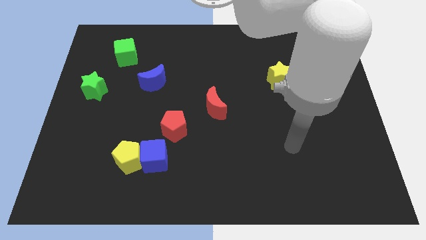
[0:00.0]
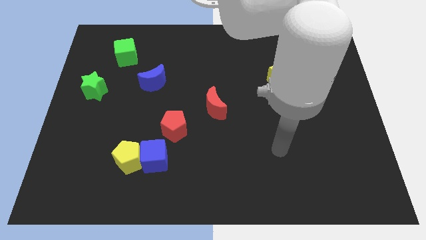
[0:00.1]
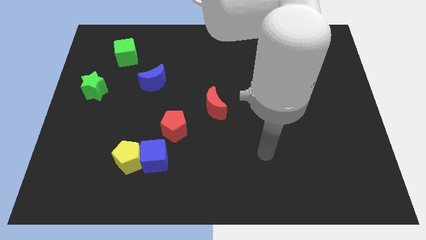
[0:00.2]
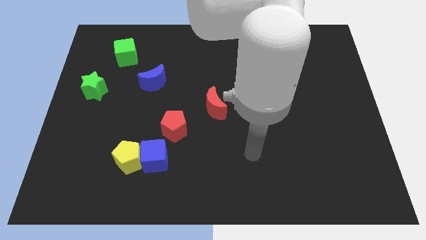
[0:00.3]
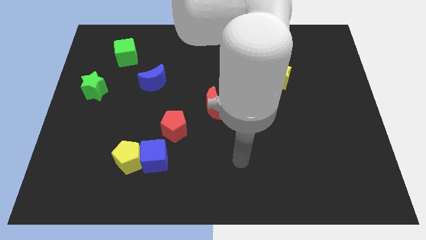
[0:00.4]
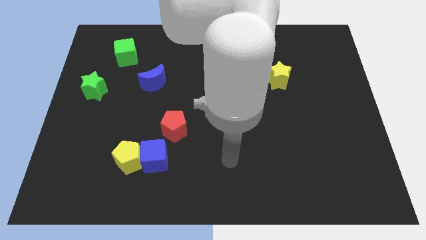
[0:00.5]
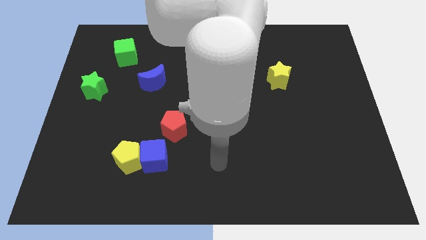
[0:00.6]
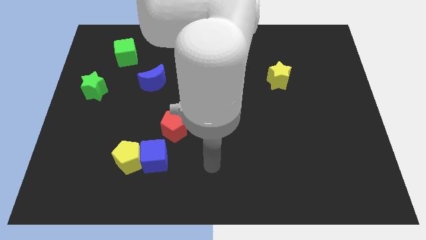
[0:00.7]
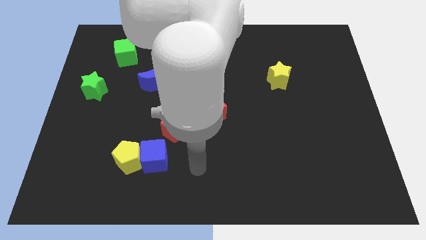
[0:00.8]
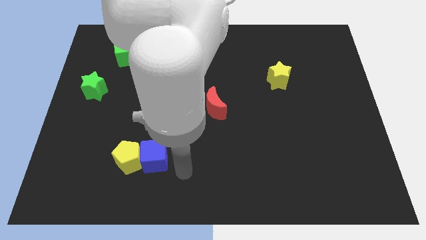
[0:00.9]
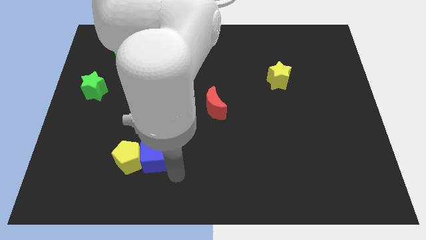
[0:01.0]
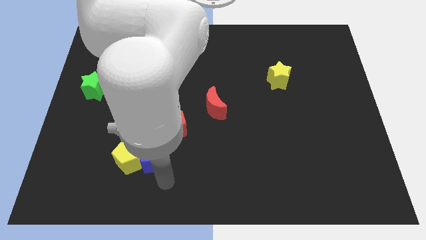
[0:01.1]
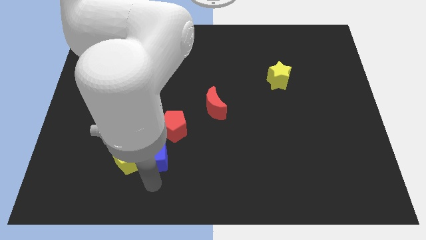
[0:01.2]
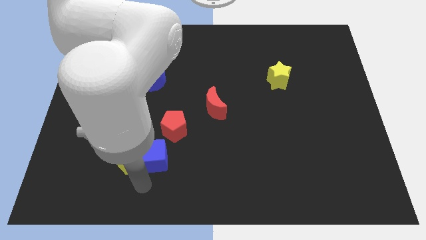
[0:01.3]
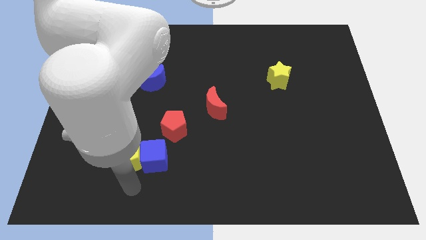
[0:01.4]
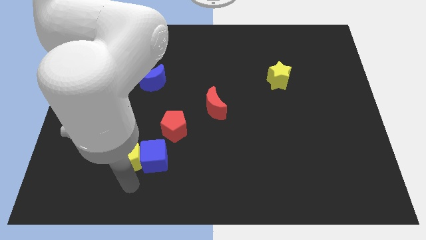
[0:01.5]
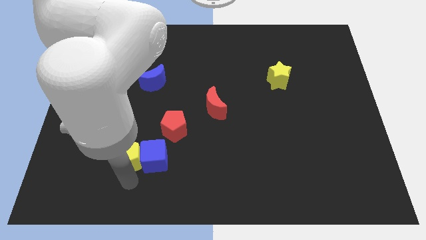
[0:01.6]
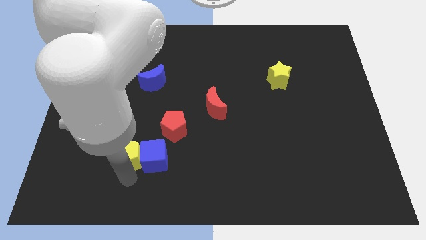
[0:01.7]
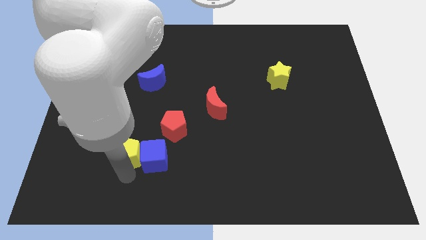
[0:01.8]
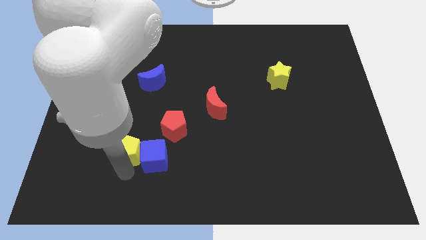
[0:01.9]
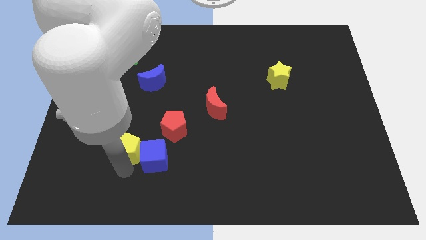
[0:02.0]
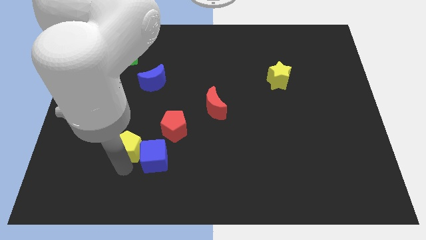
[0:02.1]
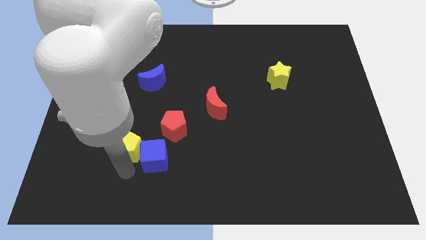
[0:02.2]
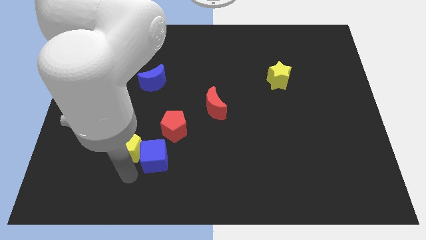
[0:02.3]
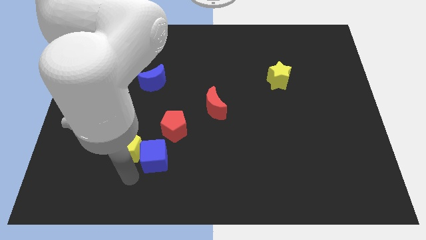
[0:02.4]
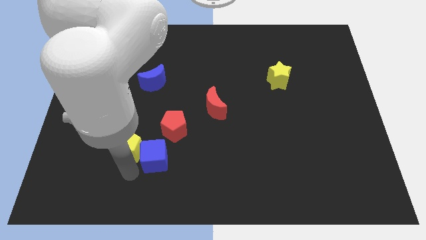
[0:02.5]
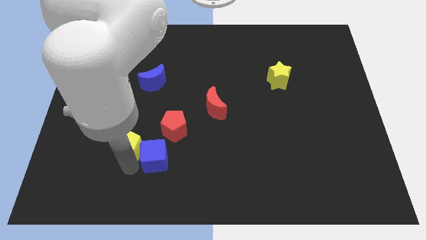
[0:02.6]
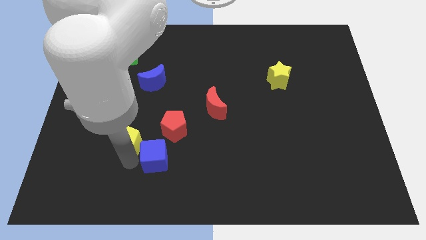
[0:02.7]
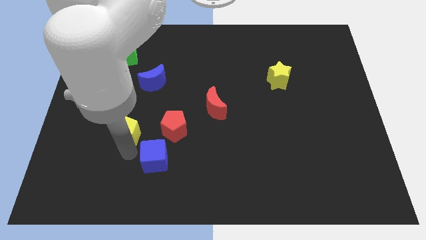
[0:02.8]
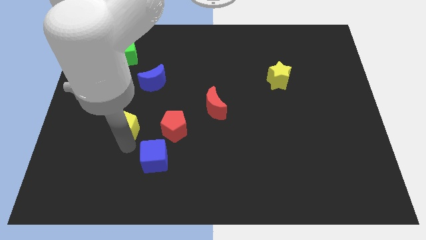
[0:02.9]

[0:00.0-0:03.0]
slightly move the yellow pentagon upwards

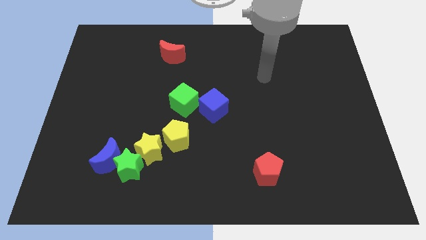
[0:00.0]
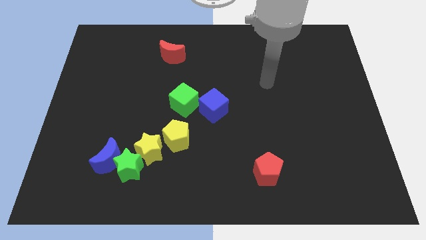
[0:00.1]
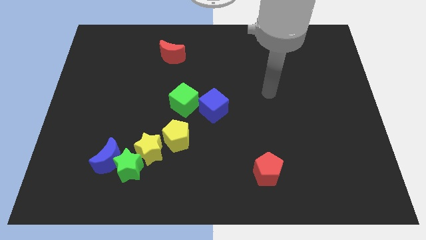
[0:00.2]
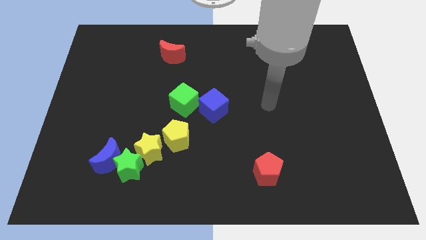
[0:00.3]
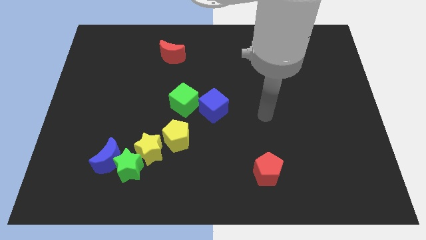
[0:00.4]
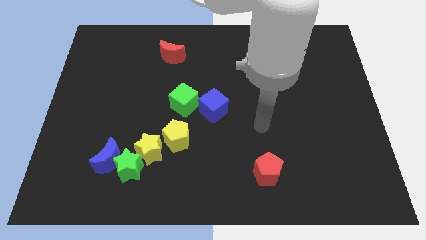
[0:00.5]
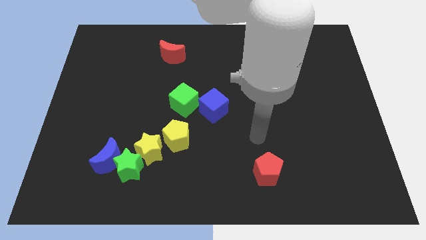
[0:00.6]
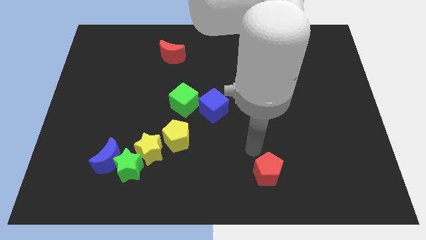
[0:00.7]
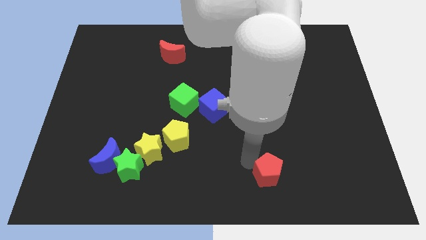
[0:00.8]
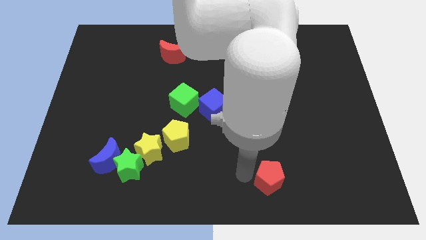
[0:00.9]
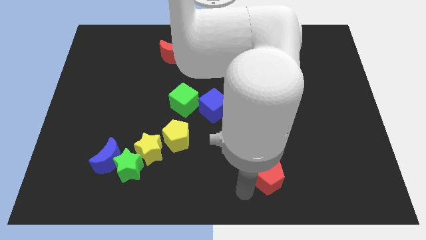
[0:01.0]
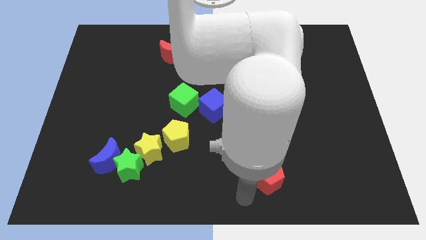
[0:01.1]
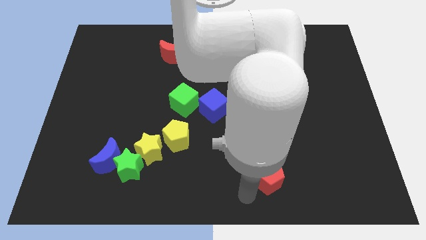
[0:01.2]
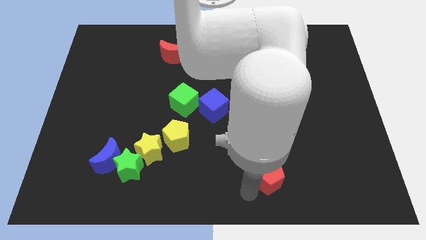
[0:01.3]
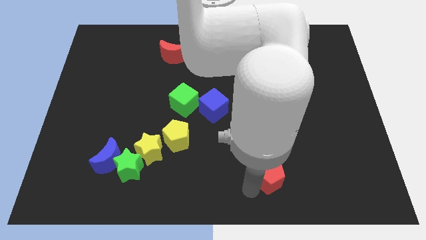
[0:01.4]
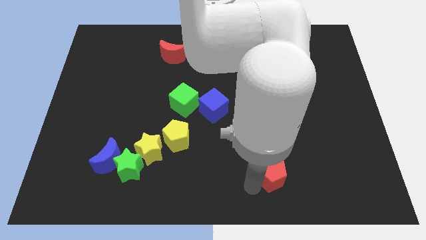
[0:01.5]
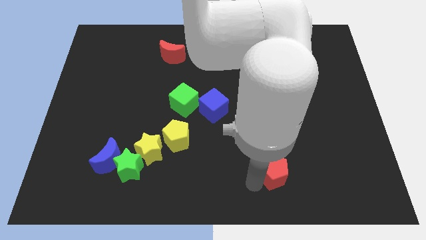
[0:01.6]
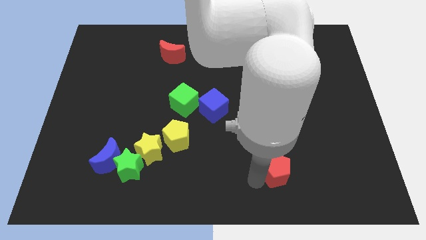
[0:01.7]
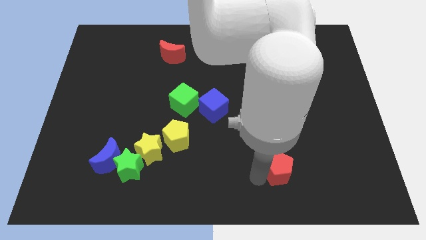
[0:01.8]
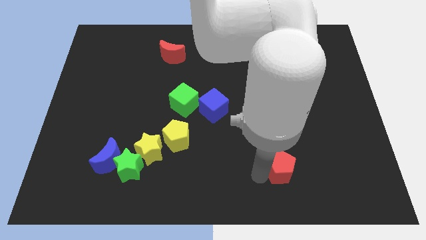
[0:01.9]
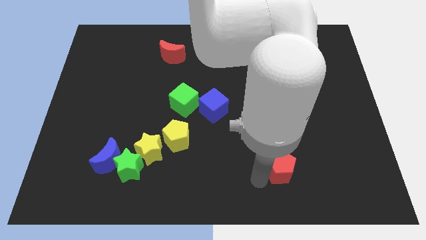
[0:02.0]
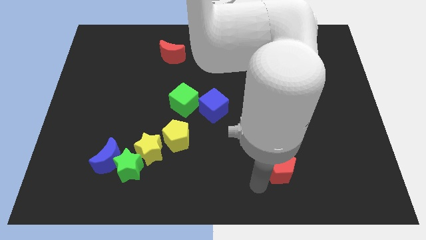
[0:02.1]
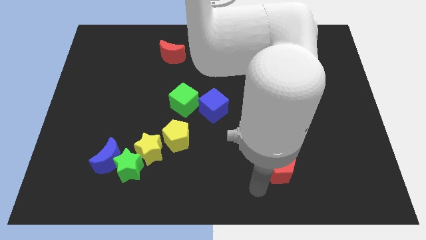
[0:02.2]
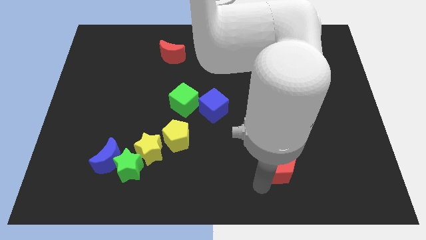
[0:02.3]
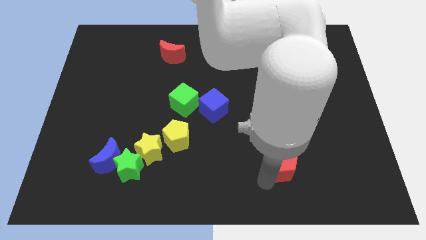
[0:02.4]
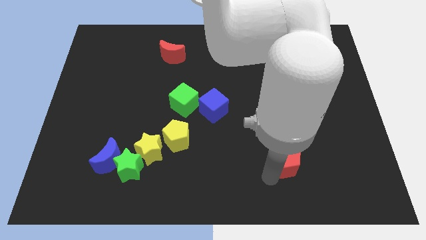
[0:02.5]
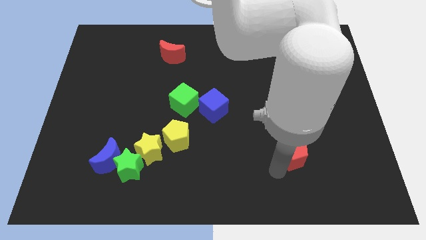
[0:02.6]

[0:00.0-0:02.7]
slightly slide the red pentagon diagonally up and right

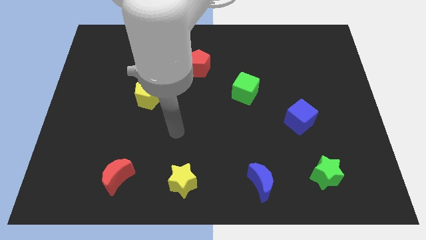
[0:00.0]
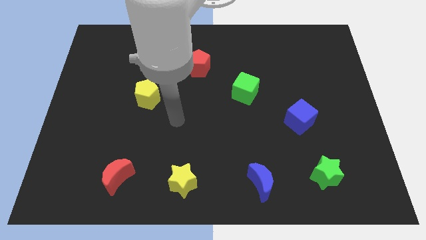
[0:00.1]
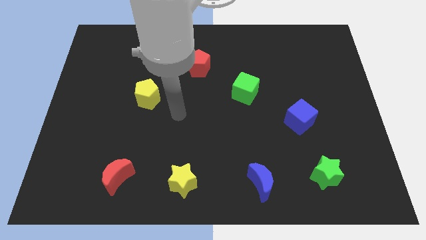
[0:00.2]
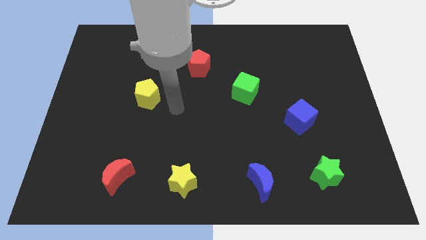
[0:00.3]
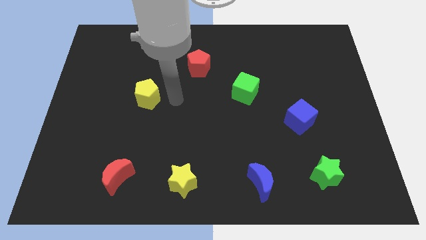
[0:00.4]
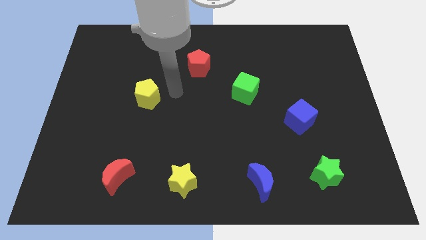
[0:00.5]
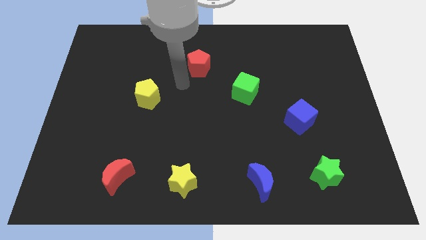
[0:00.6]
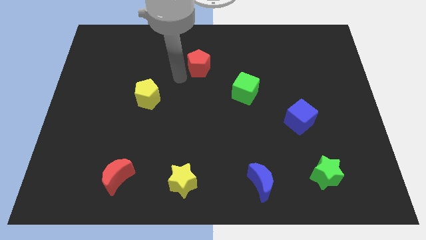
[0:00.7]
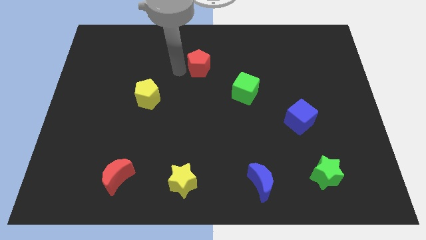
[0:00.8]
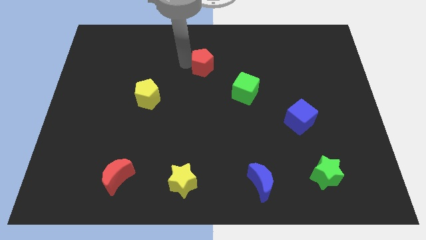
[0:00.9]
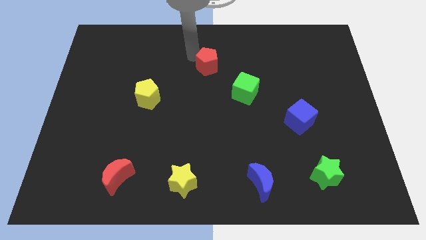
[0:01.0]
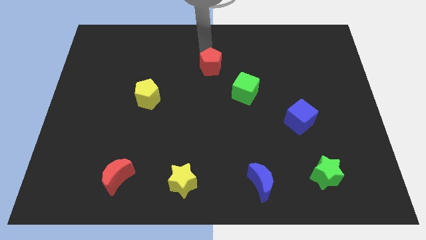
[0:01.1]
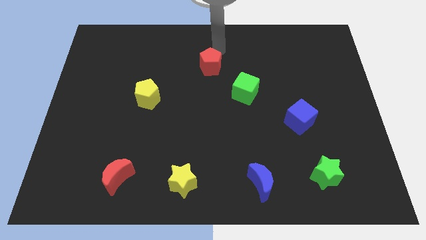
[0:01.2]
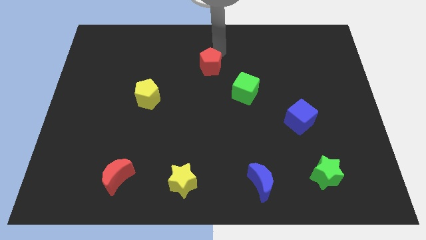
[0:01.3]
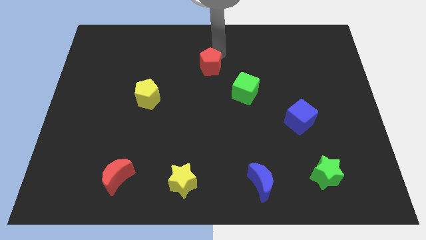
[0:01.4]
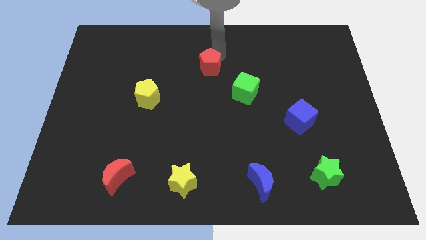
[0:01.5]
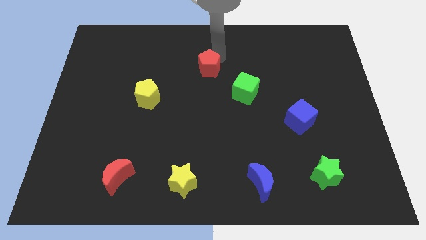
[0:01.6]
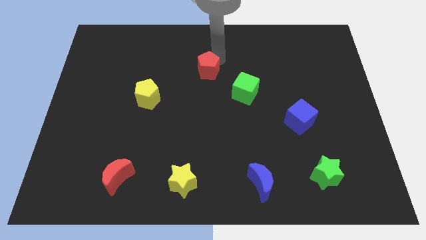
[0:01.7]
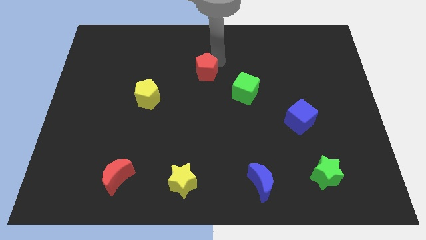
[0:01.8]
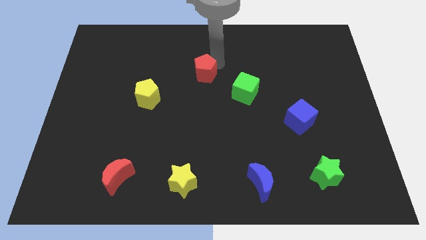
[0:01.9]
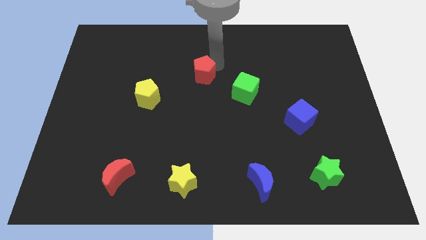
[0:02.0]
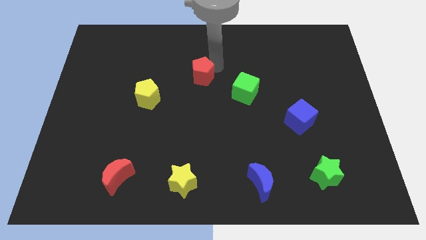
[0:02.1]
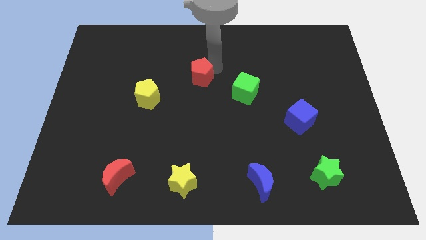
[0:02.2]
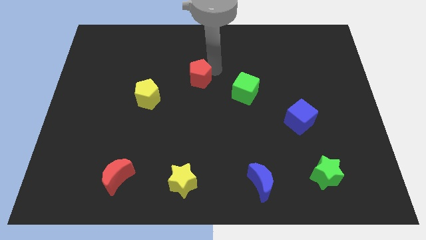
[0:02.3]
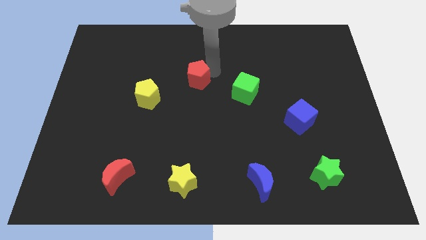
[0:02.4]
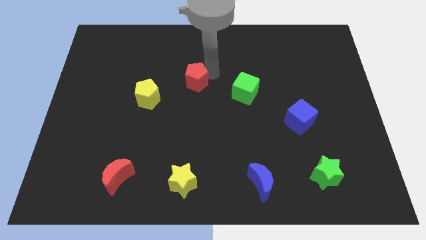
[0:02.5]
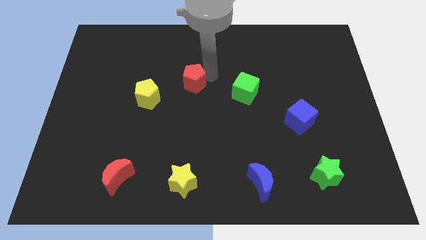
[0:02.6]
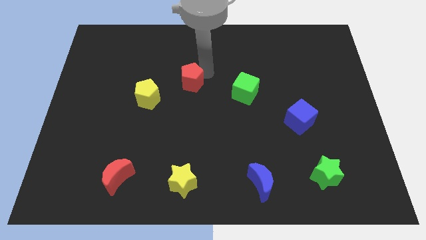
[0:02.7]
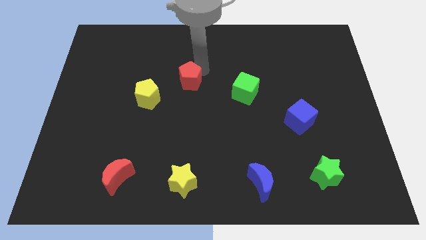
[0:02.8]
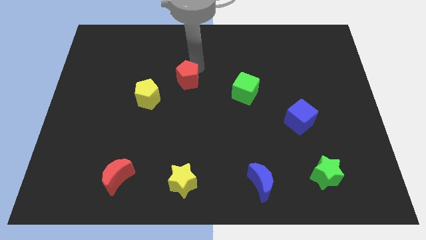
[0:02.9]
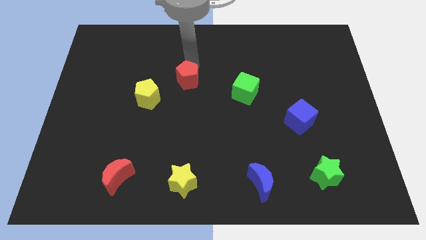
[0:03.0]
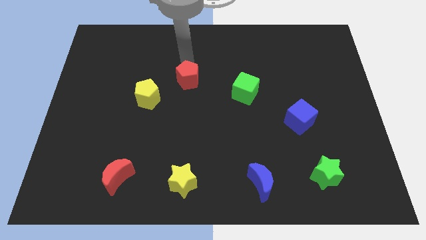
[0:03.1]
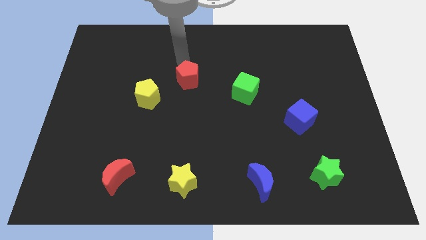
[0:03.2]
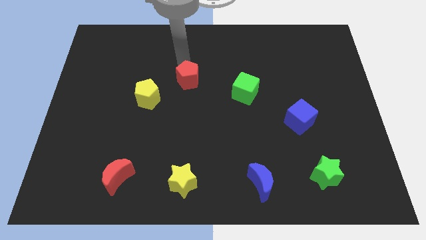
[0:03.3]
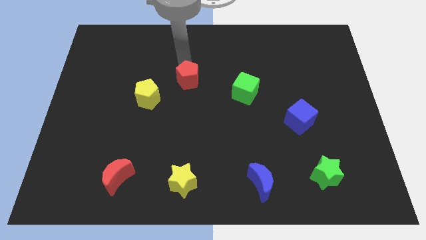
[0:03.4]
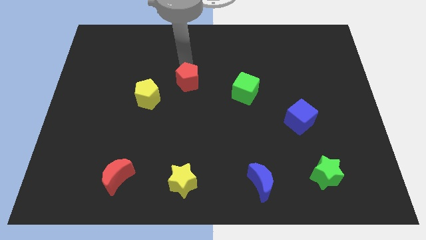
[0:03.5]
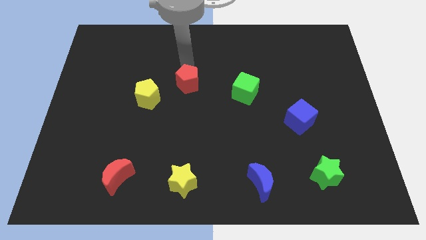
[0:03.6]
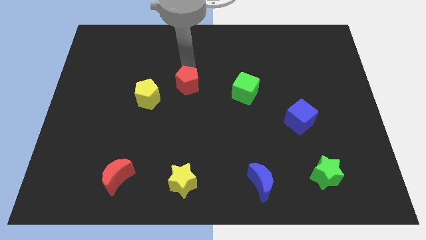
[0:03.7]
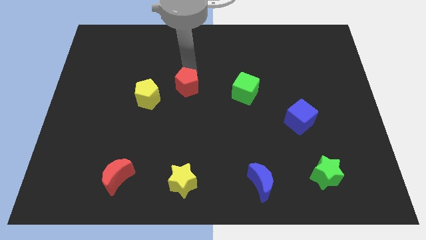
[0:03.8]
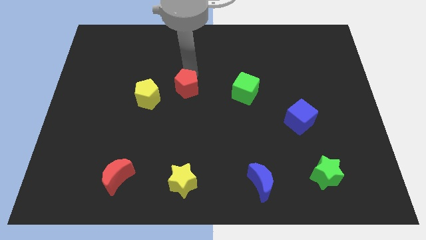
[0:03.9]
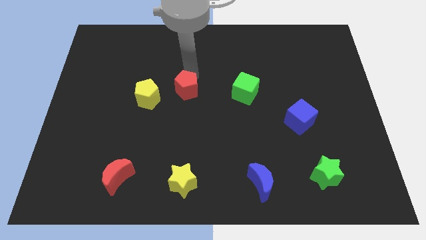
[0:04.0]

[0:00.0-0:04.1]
slightly push the red pentagon down
